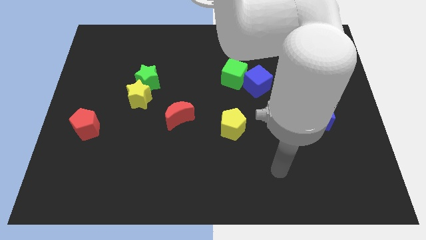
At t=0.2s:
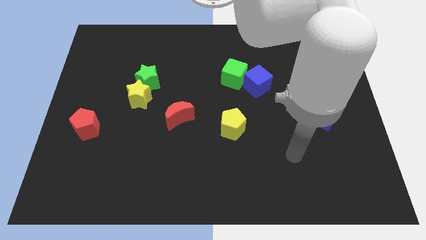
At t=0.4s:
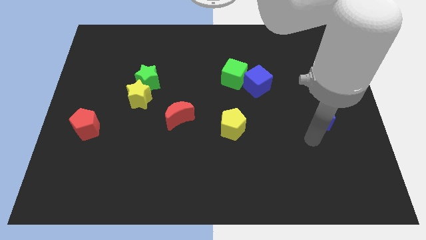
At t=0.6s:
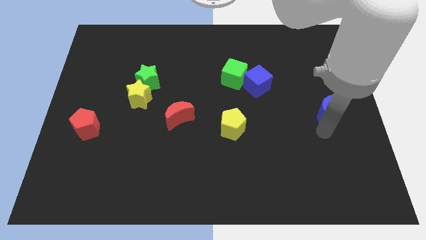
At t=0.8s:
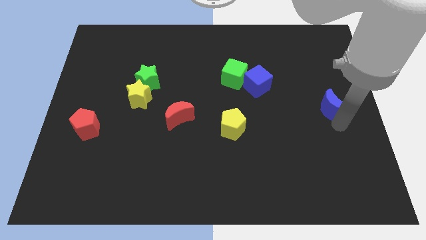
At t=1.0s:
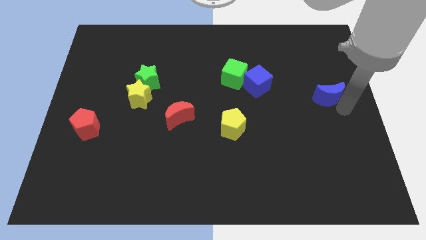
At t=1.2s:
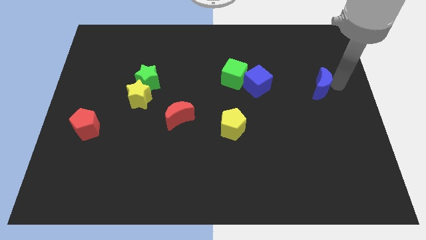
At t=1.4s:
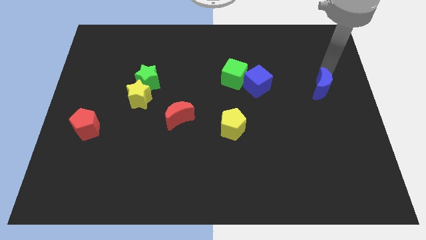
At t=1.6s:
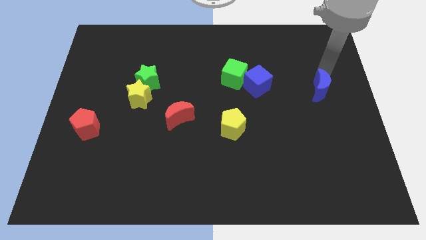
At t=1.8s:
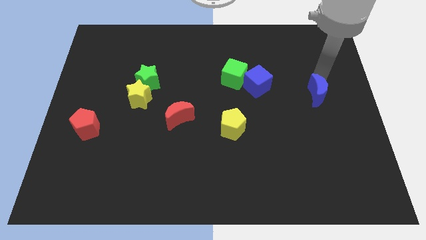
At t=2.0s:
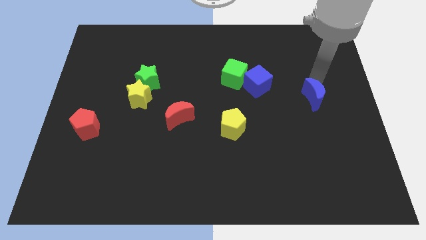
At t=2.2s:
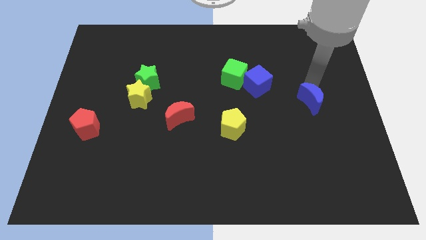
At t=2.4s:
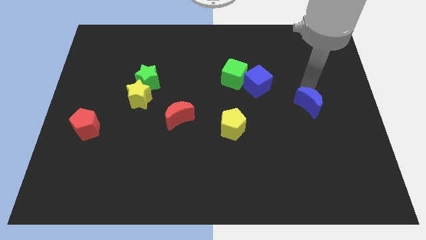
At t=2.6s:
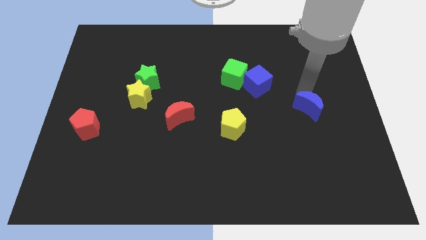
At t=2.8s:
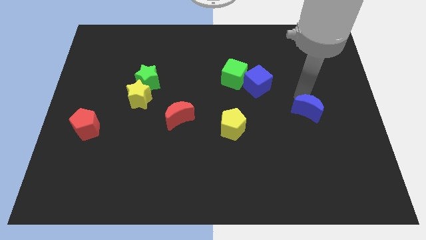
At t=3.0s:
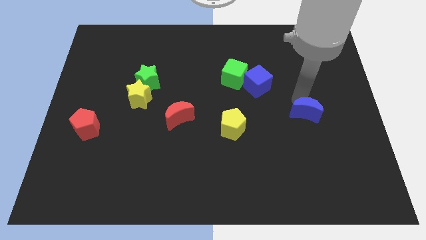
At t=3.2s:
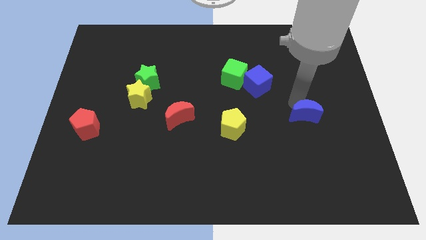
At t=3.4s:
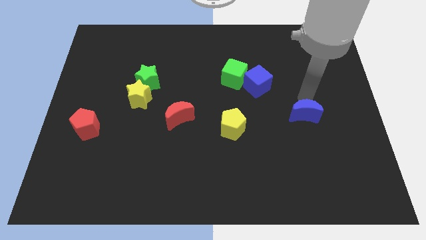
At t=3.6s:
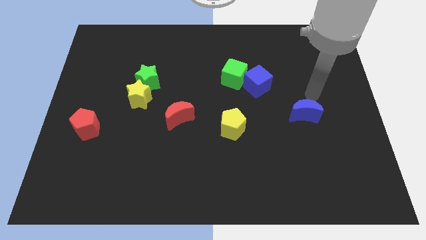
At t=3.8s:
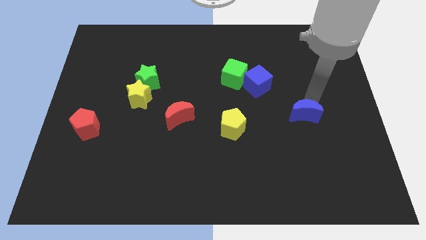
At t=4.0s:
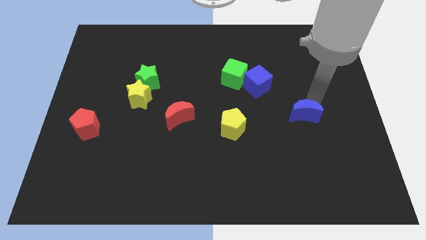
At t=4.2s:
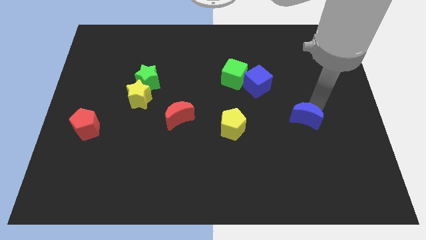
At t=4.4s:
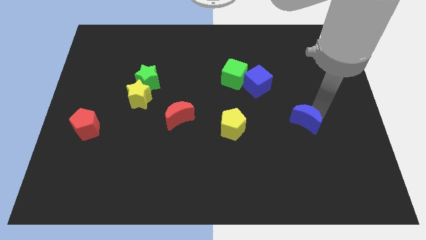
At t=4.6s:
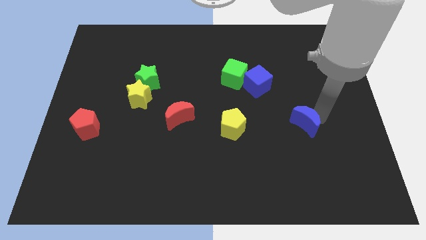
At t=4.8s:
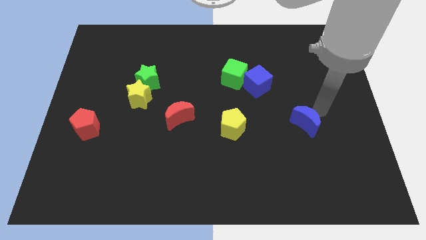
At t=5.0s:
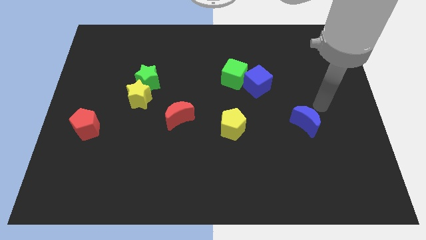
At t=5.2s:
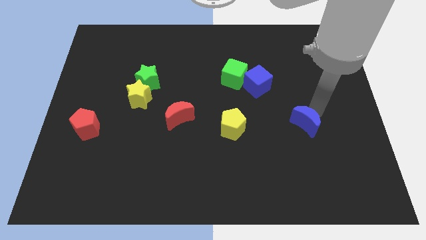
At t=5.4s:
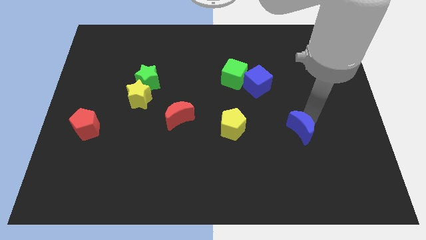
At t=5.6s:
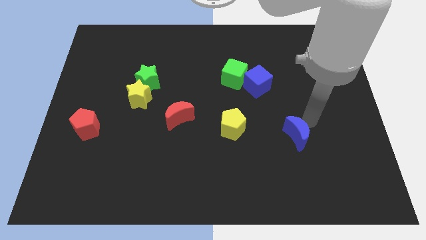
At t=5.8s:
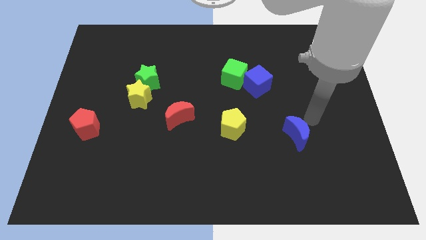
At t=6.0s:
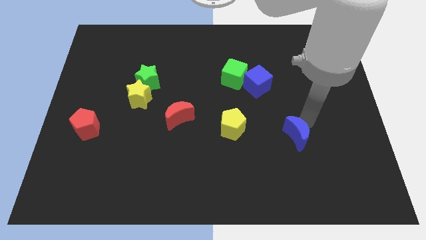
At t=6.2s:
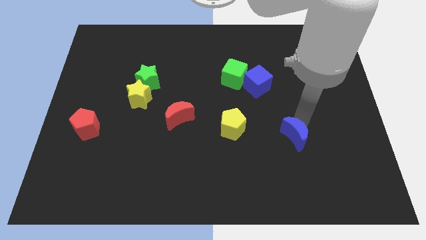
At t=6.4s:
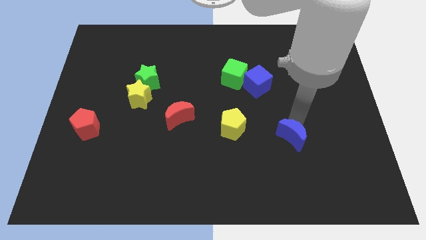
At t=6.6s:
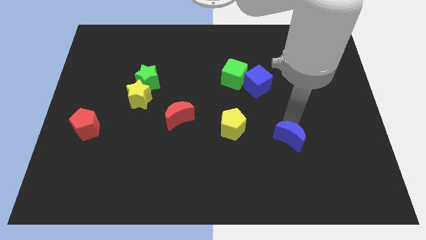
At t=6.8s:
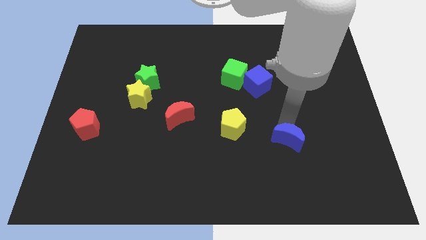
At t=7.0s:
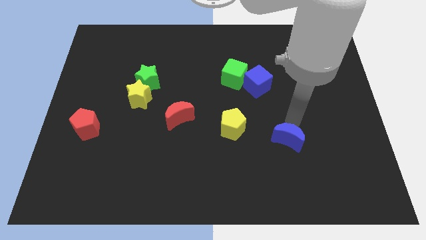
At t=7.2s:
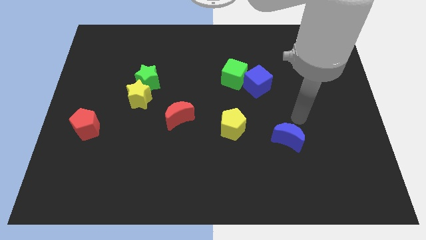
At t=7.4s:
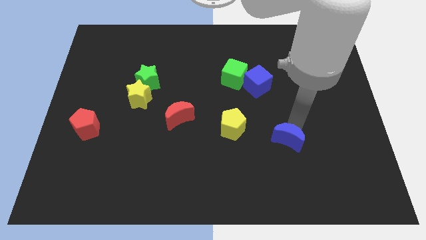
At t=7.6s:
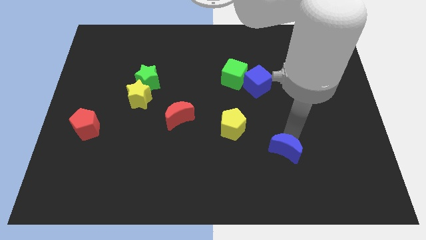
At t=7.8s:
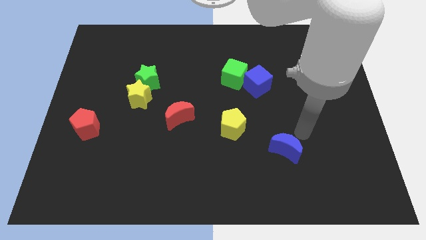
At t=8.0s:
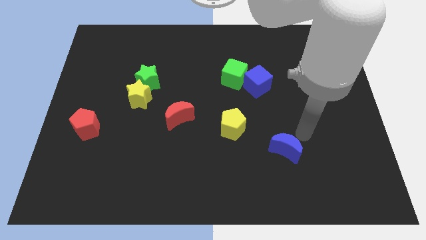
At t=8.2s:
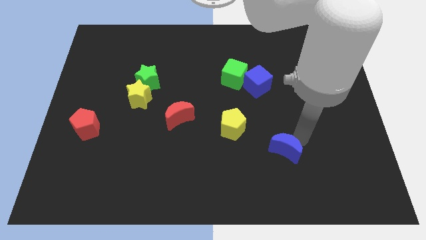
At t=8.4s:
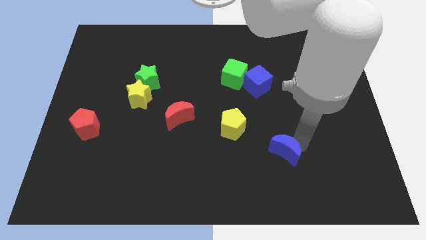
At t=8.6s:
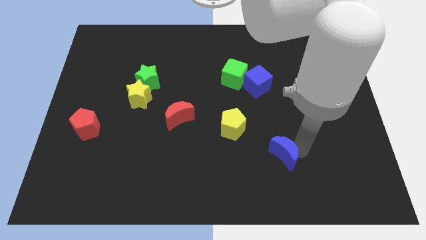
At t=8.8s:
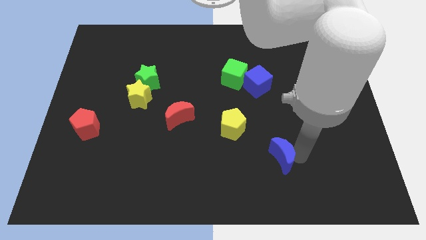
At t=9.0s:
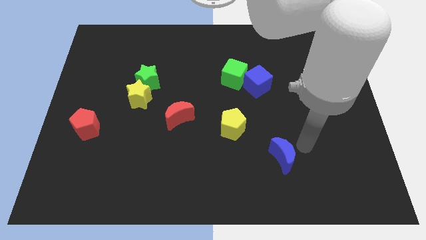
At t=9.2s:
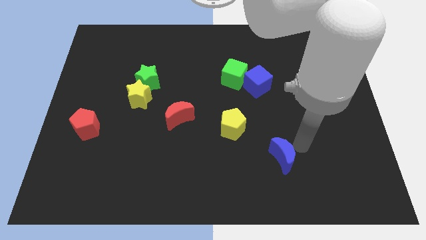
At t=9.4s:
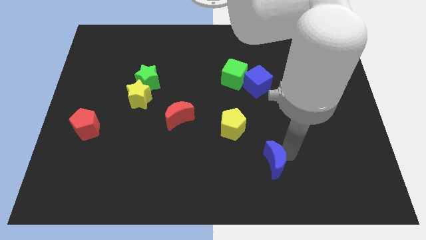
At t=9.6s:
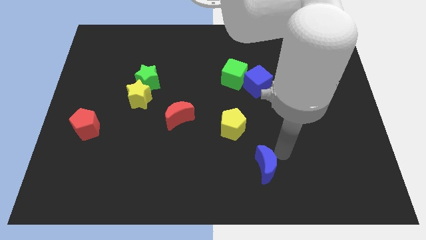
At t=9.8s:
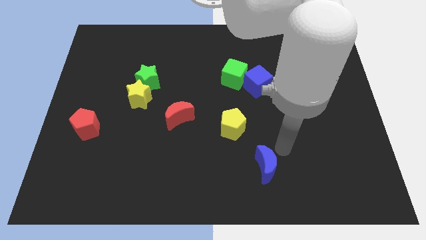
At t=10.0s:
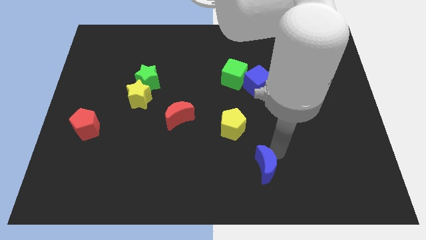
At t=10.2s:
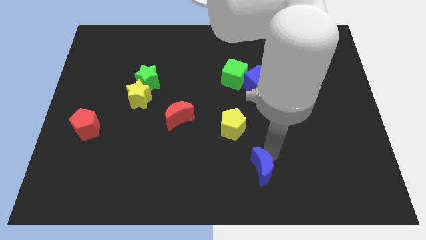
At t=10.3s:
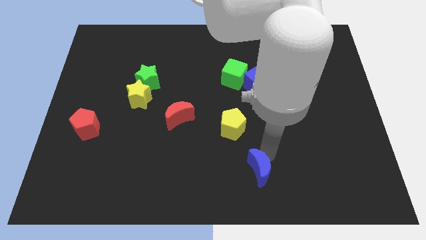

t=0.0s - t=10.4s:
move the blue moon to the bottom side

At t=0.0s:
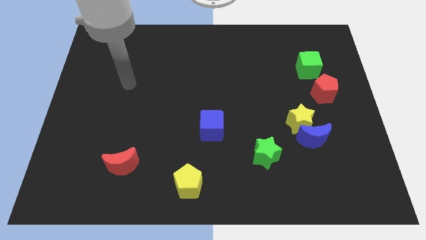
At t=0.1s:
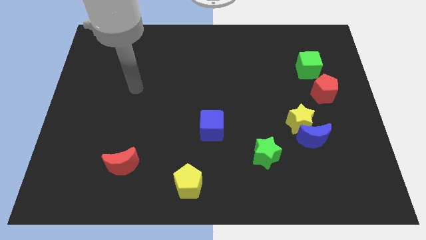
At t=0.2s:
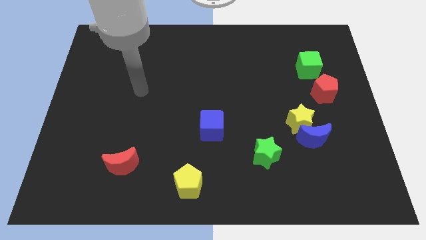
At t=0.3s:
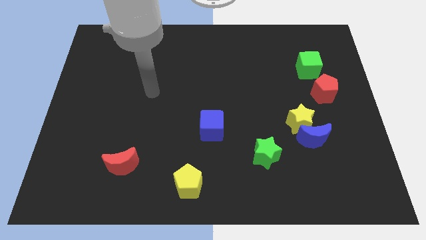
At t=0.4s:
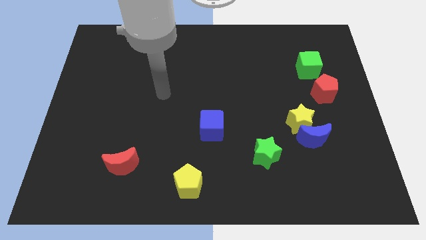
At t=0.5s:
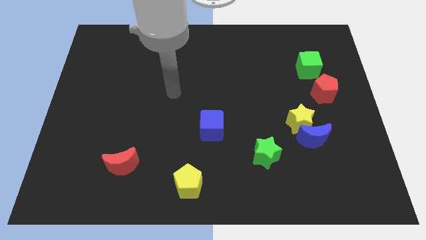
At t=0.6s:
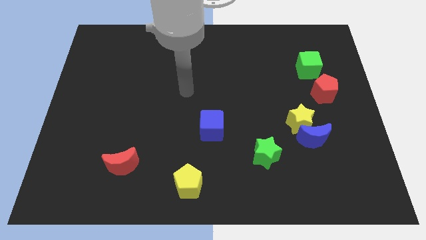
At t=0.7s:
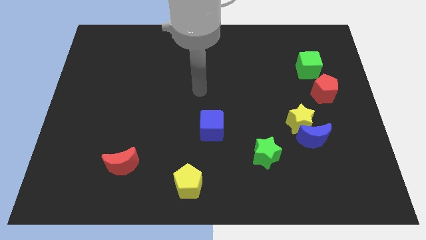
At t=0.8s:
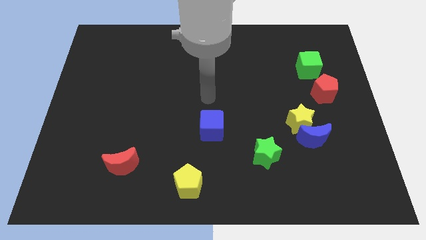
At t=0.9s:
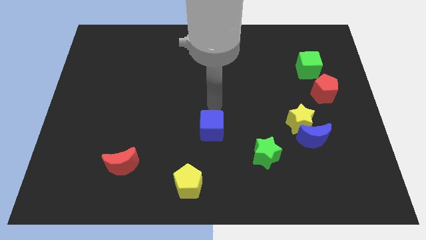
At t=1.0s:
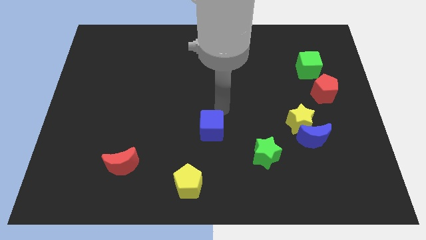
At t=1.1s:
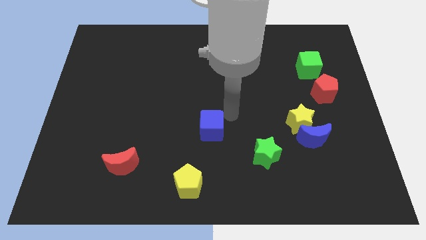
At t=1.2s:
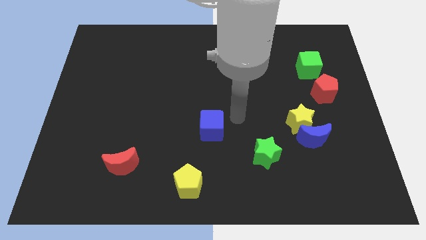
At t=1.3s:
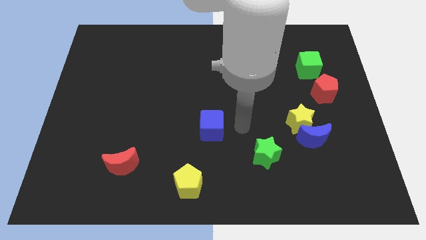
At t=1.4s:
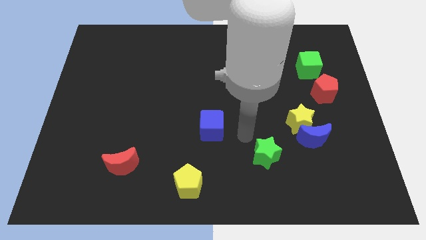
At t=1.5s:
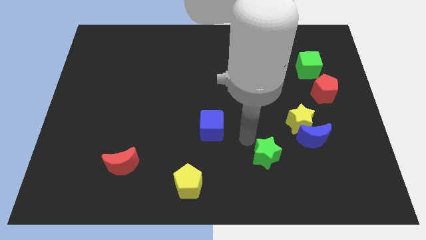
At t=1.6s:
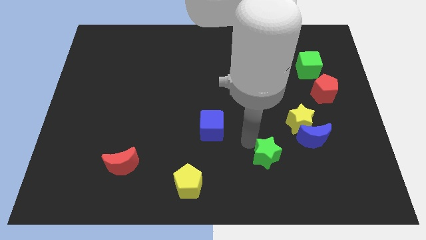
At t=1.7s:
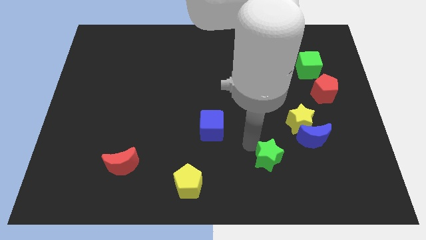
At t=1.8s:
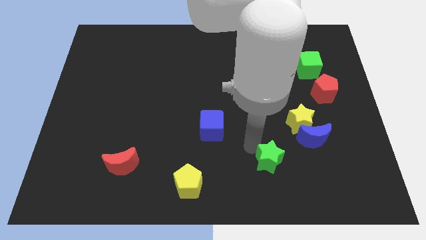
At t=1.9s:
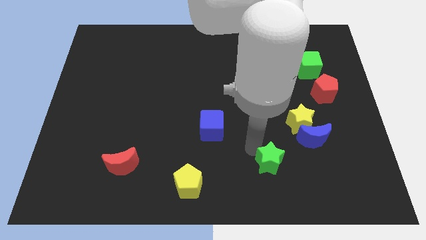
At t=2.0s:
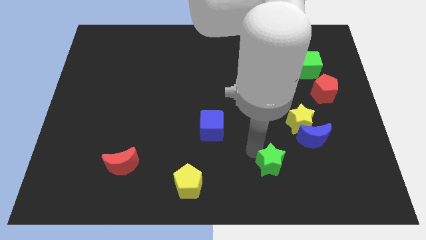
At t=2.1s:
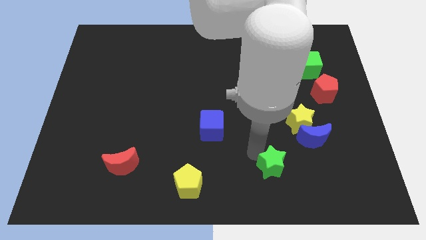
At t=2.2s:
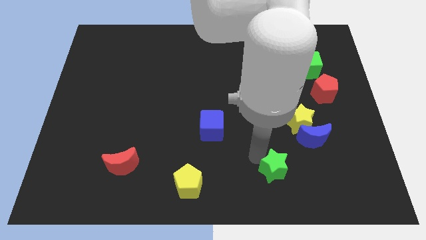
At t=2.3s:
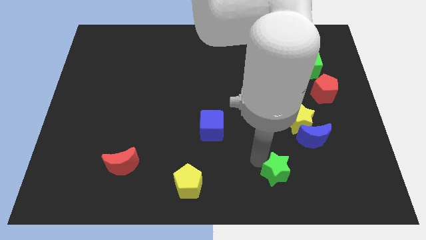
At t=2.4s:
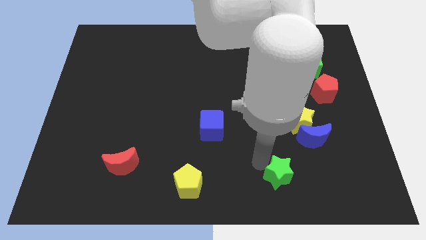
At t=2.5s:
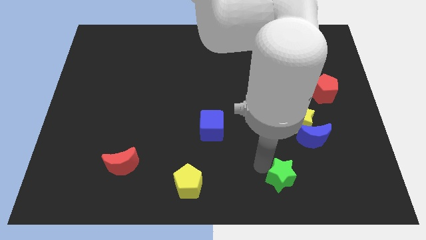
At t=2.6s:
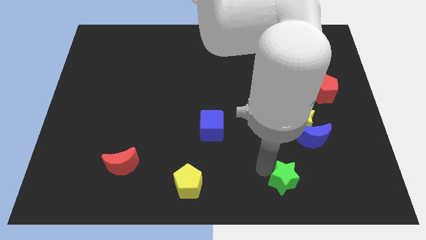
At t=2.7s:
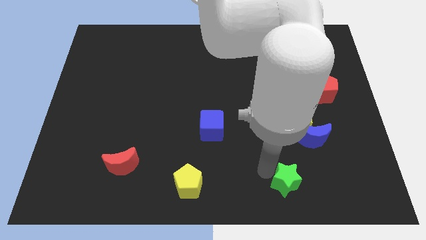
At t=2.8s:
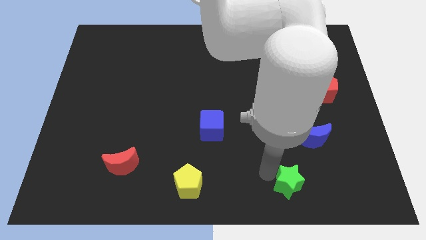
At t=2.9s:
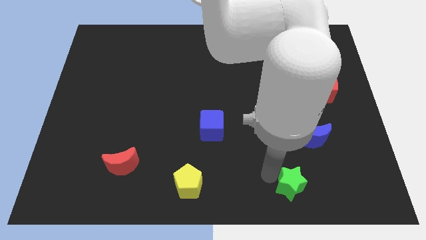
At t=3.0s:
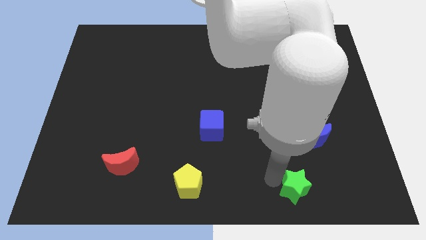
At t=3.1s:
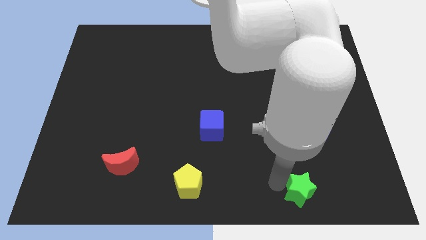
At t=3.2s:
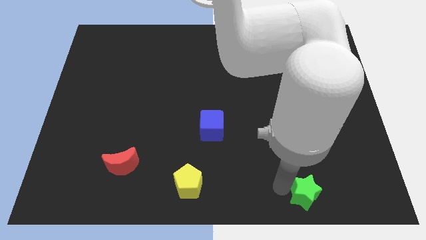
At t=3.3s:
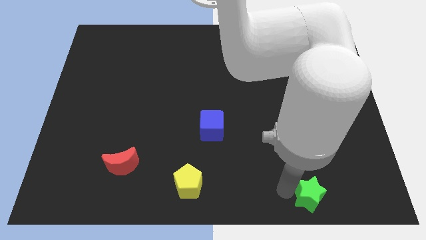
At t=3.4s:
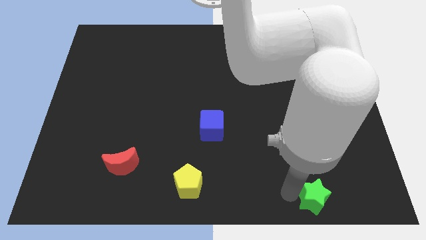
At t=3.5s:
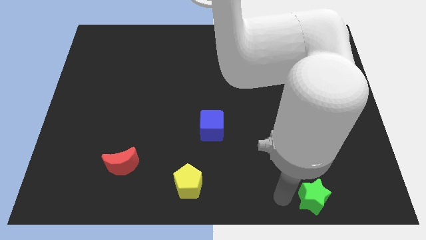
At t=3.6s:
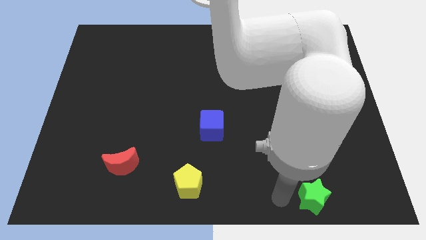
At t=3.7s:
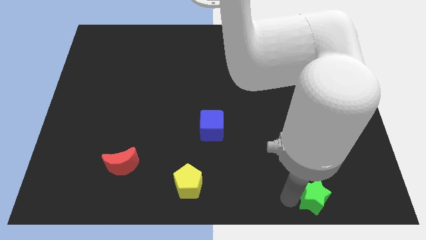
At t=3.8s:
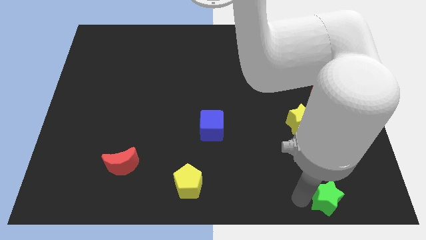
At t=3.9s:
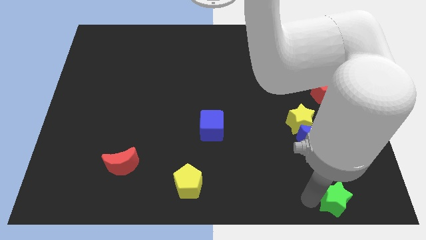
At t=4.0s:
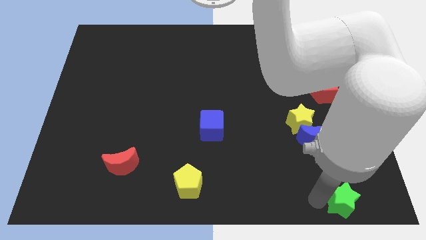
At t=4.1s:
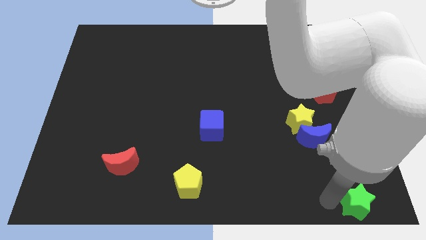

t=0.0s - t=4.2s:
push the green star to the bottom right
